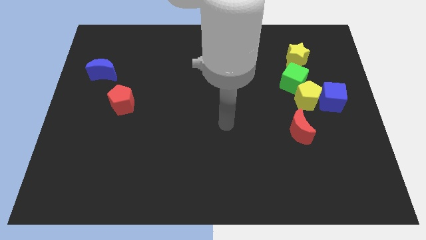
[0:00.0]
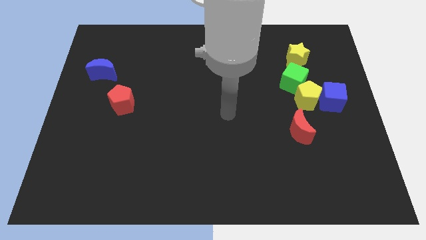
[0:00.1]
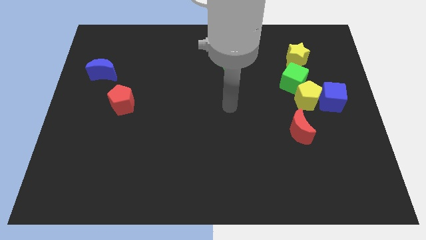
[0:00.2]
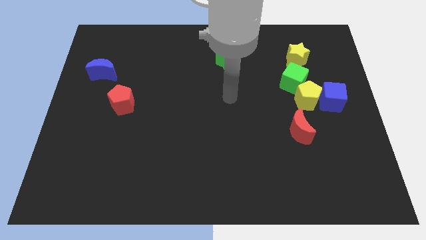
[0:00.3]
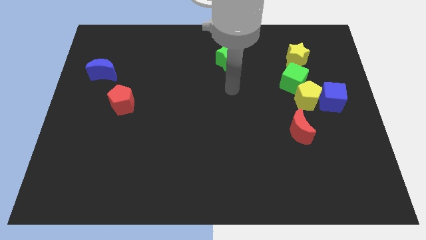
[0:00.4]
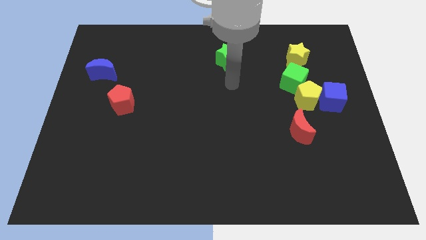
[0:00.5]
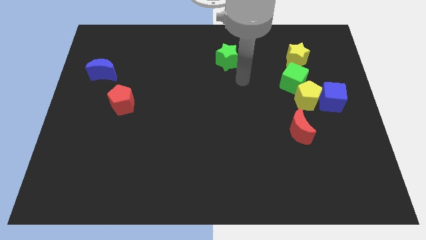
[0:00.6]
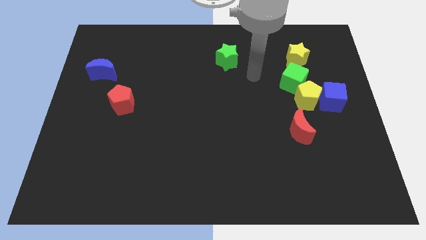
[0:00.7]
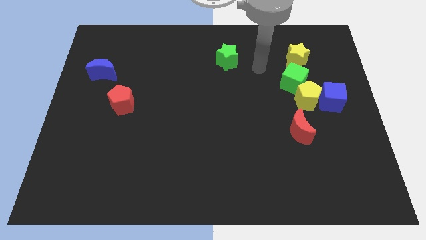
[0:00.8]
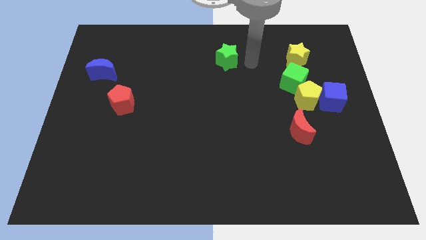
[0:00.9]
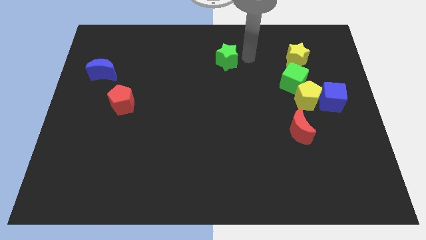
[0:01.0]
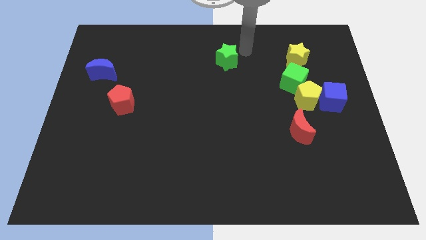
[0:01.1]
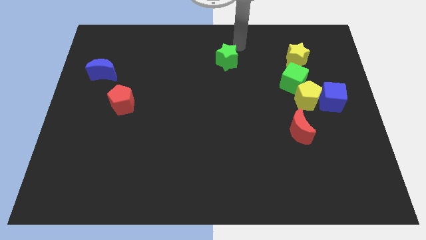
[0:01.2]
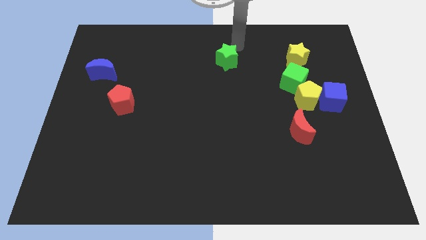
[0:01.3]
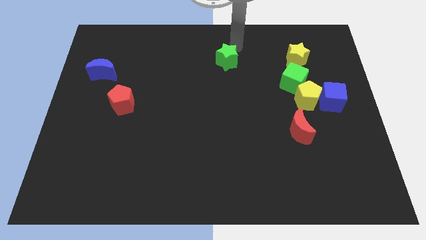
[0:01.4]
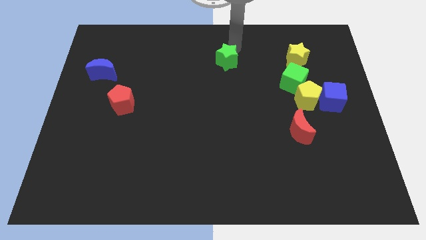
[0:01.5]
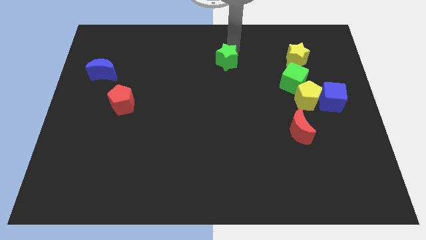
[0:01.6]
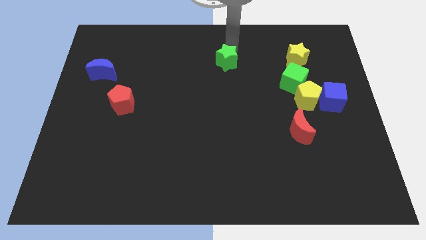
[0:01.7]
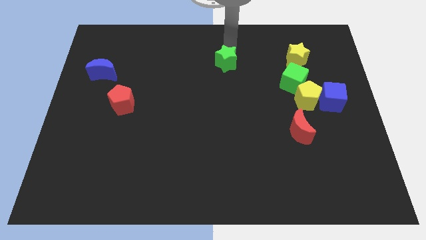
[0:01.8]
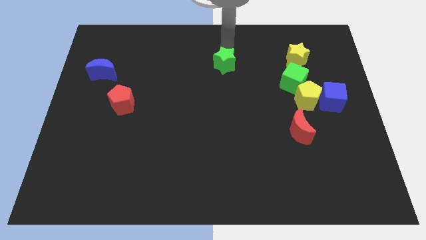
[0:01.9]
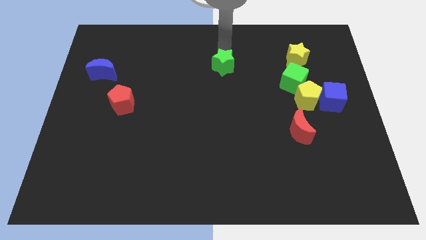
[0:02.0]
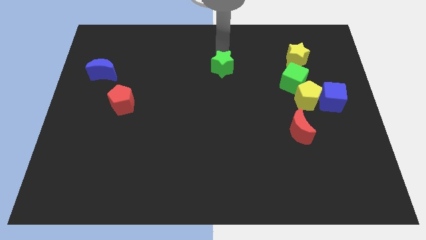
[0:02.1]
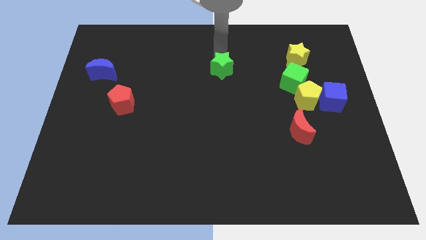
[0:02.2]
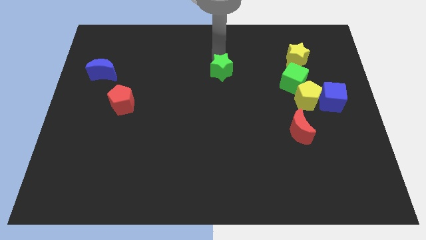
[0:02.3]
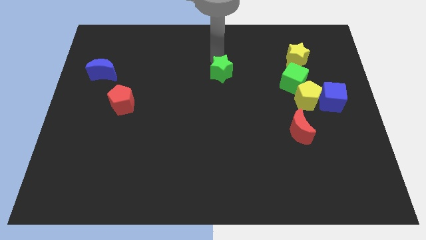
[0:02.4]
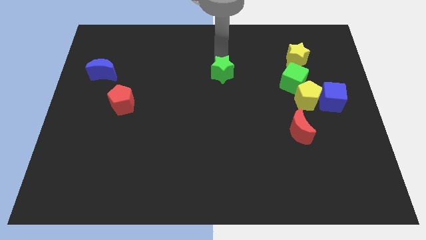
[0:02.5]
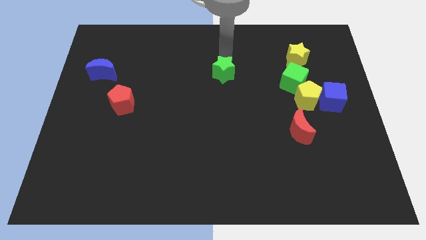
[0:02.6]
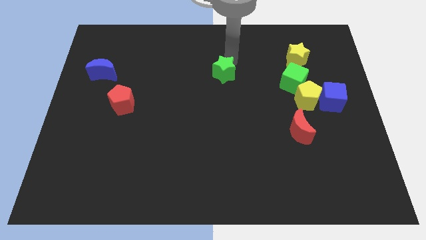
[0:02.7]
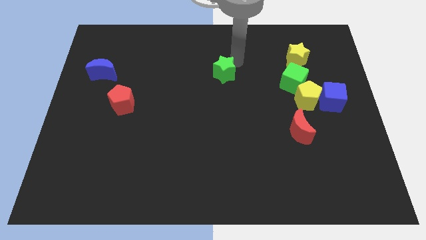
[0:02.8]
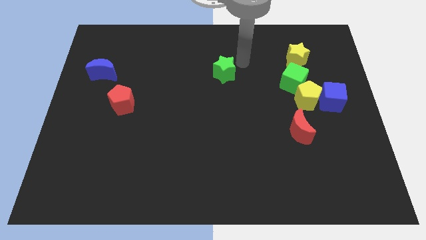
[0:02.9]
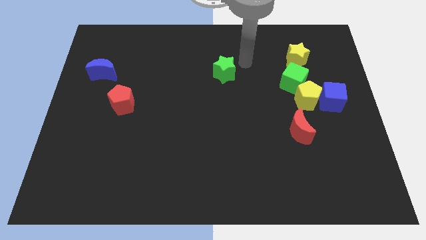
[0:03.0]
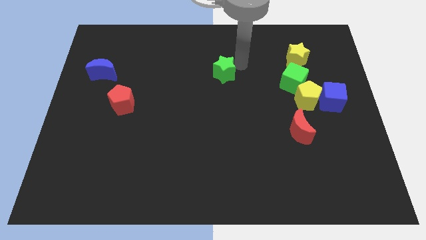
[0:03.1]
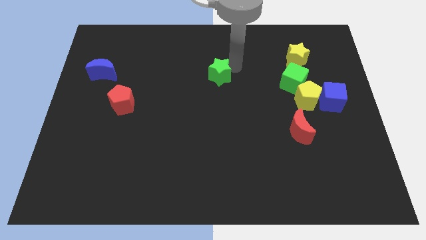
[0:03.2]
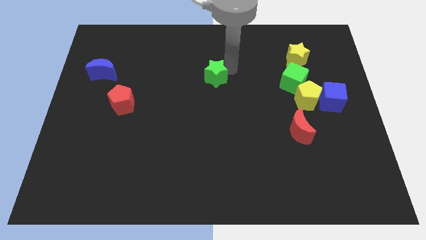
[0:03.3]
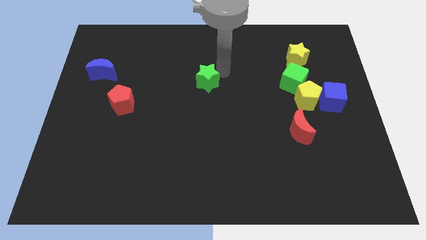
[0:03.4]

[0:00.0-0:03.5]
push the green star a little down and then to the left

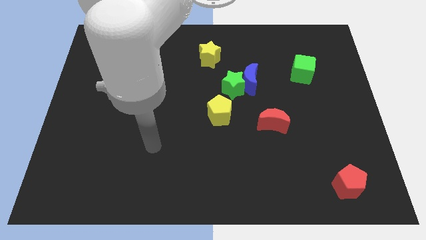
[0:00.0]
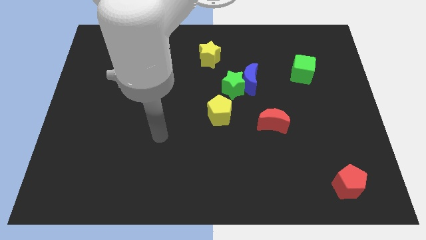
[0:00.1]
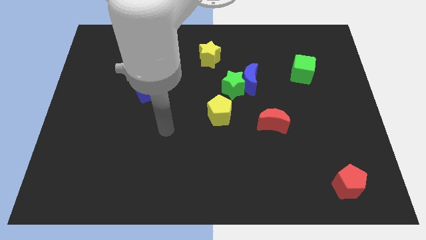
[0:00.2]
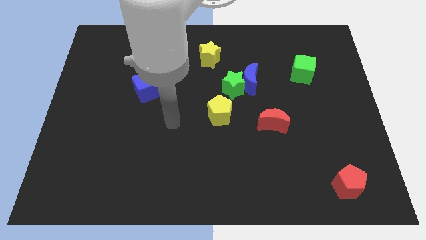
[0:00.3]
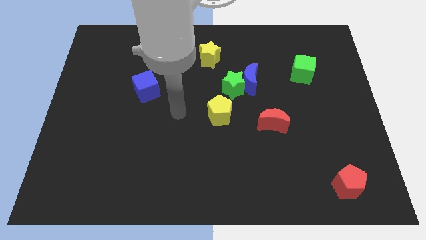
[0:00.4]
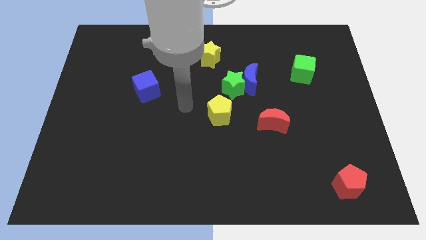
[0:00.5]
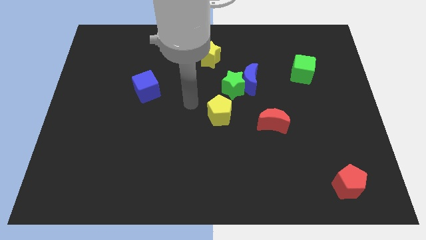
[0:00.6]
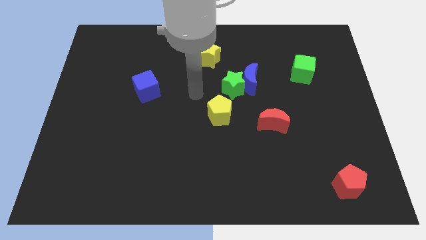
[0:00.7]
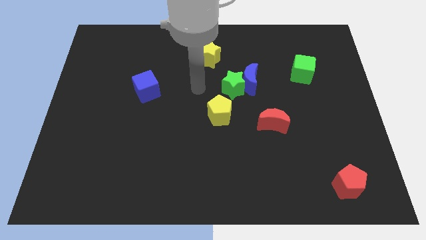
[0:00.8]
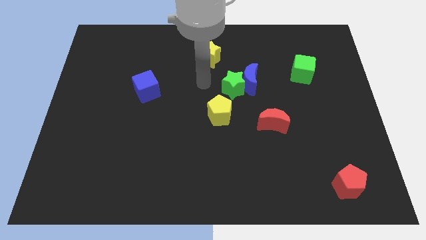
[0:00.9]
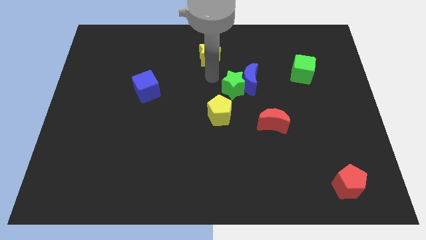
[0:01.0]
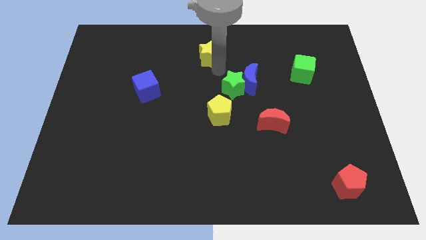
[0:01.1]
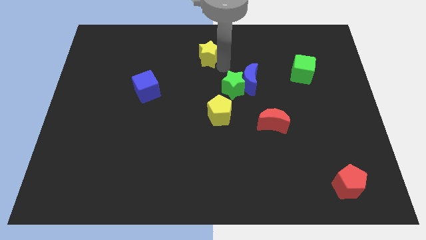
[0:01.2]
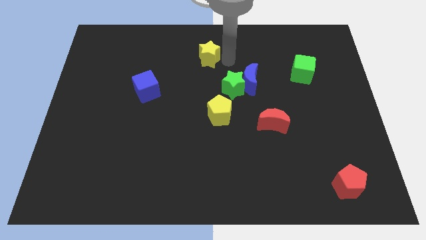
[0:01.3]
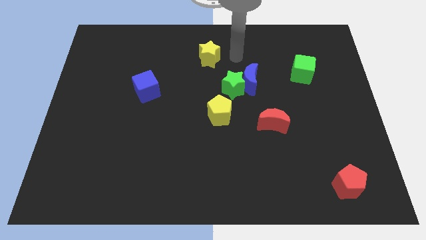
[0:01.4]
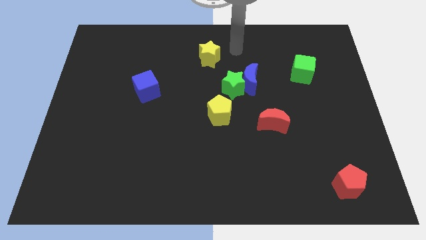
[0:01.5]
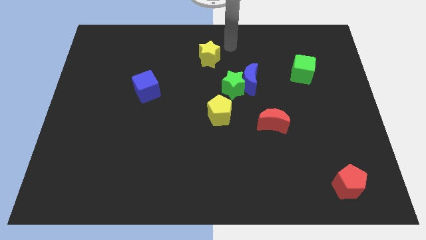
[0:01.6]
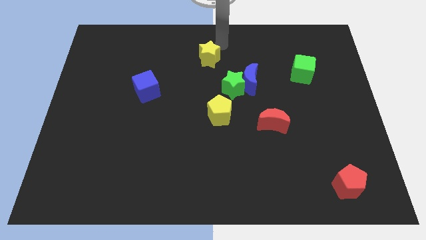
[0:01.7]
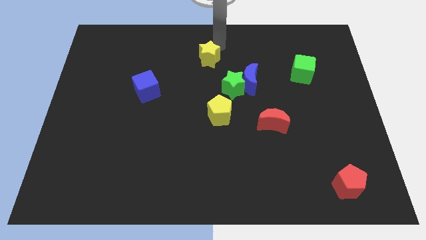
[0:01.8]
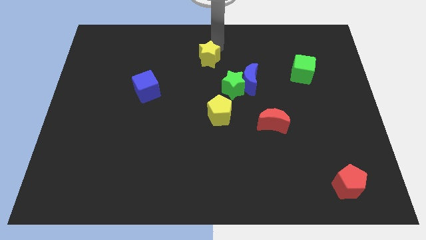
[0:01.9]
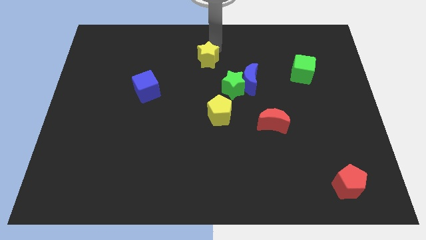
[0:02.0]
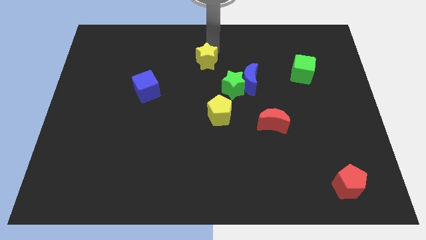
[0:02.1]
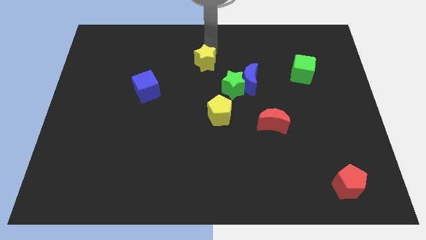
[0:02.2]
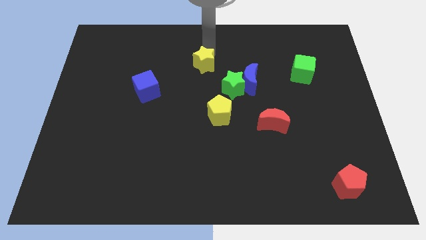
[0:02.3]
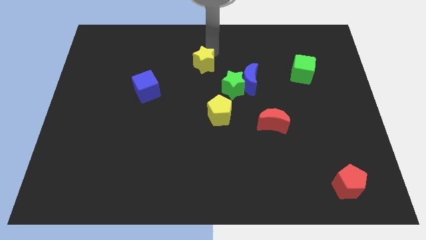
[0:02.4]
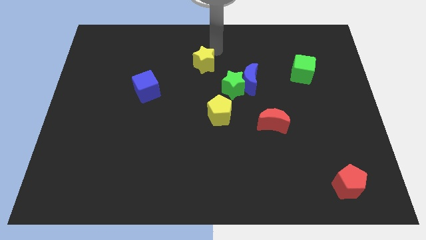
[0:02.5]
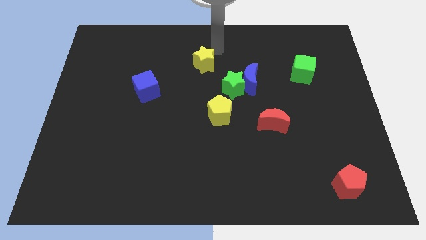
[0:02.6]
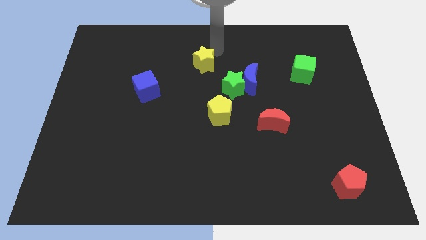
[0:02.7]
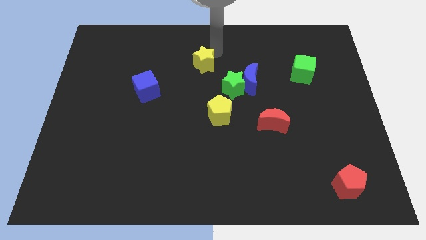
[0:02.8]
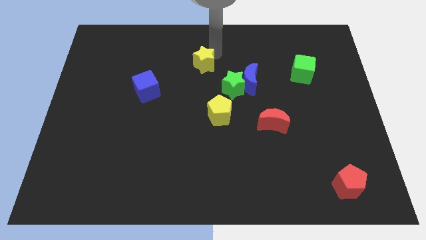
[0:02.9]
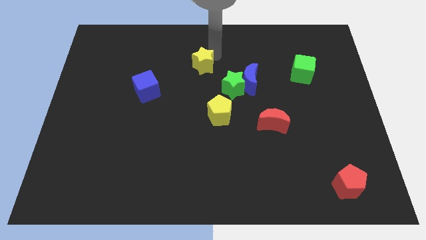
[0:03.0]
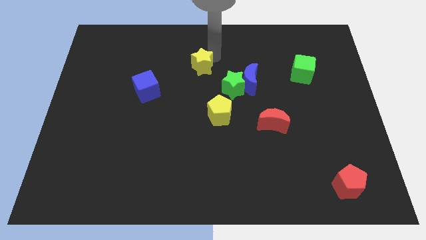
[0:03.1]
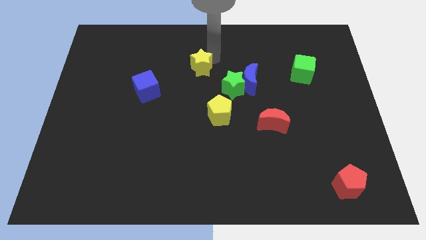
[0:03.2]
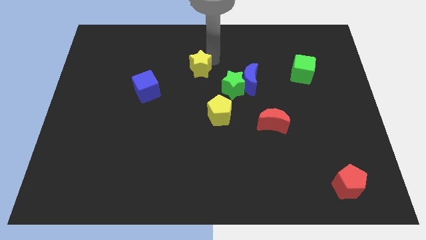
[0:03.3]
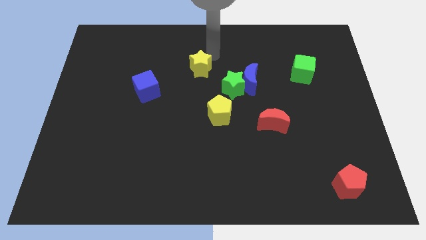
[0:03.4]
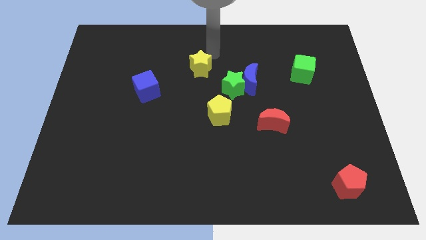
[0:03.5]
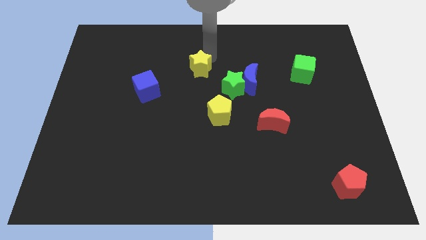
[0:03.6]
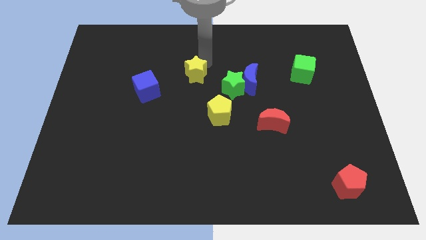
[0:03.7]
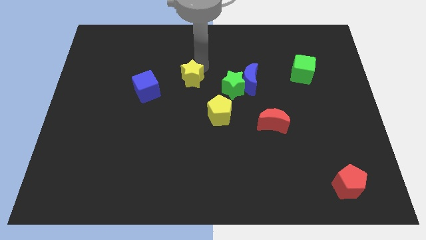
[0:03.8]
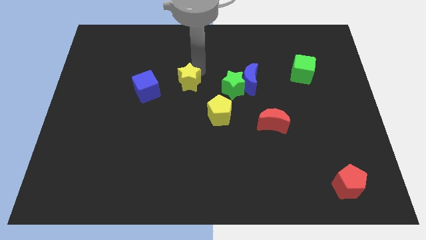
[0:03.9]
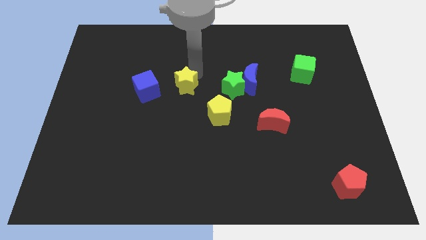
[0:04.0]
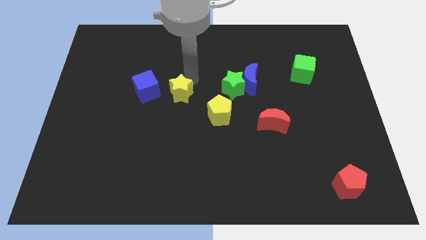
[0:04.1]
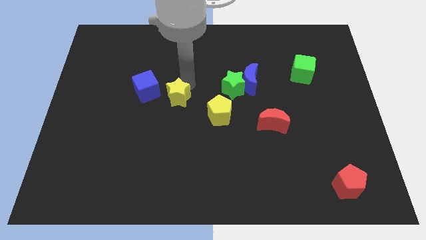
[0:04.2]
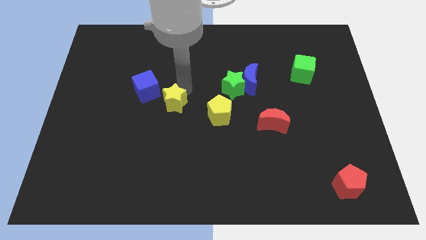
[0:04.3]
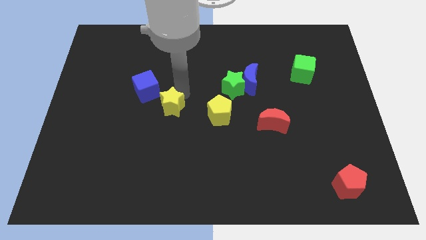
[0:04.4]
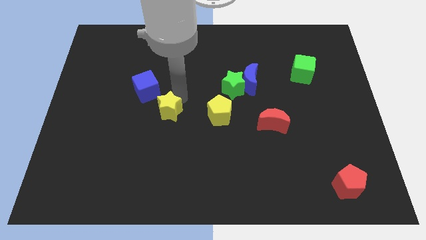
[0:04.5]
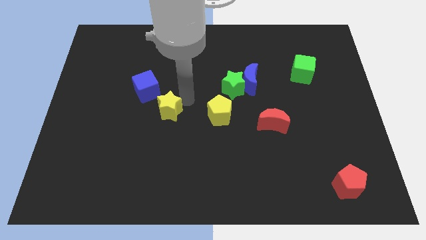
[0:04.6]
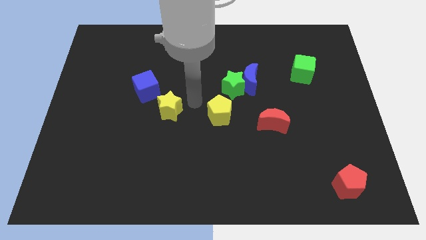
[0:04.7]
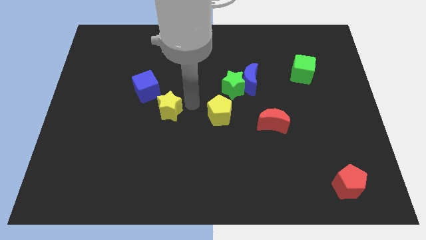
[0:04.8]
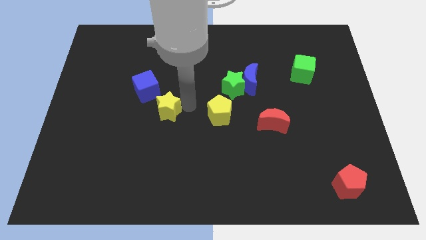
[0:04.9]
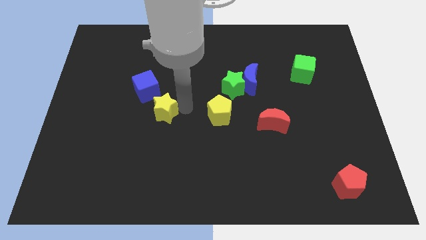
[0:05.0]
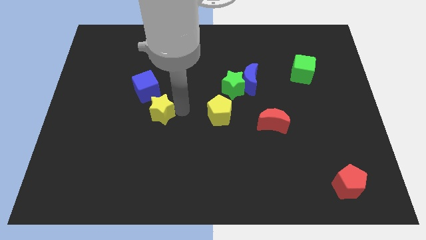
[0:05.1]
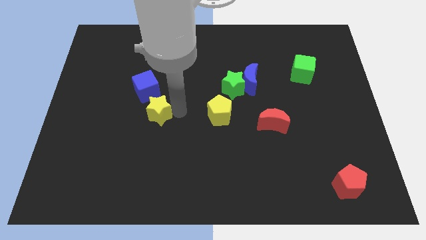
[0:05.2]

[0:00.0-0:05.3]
push the yellow star down and left diagonally
